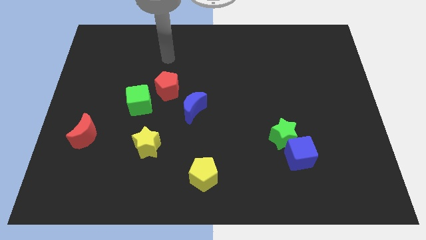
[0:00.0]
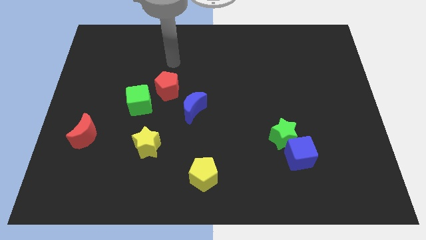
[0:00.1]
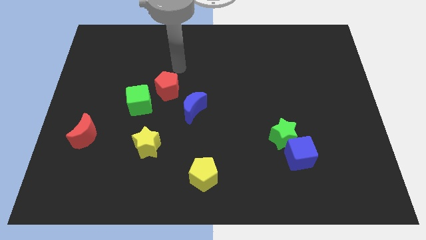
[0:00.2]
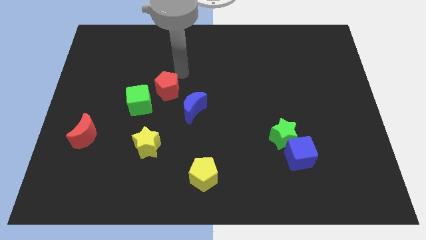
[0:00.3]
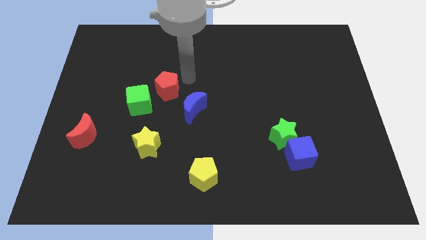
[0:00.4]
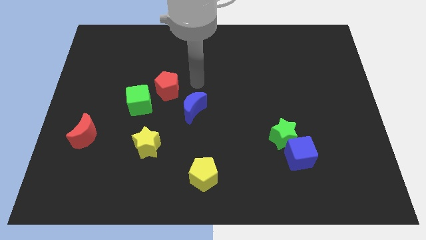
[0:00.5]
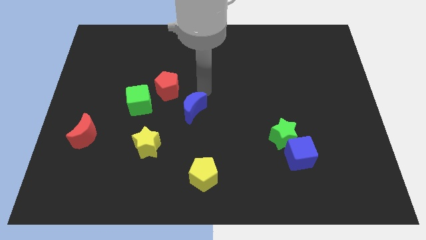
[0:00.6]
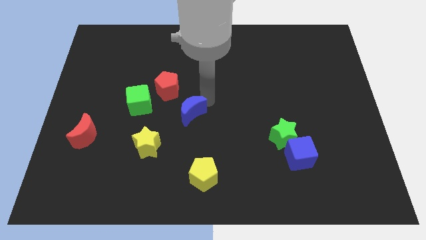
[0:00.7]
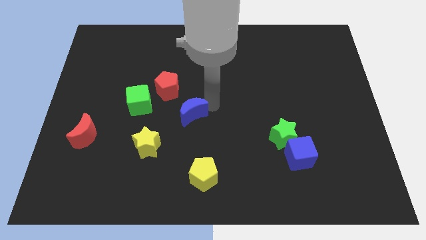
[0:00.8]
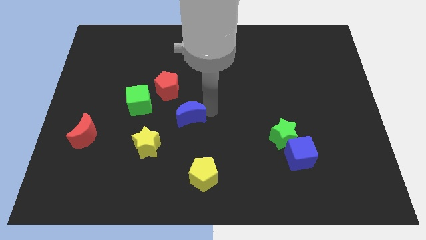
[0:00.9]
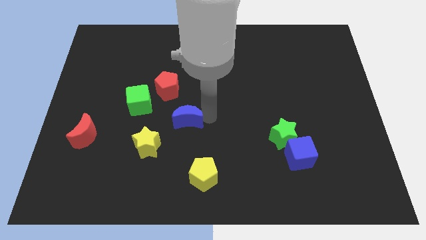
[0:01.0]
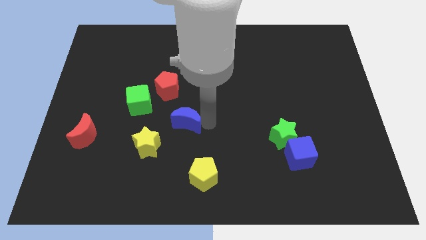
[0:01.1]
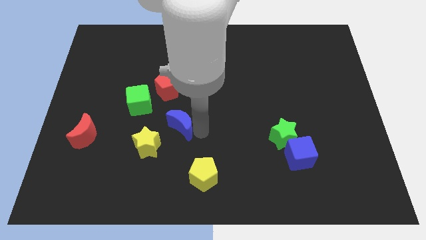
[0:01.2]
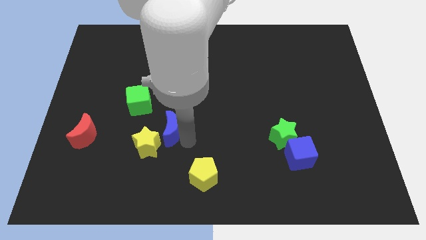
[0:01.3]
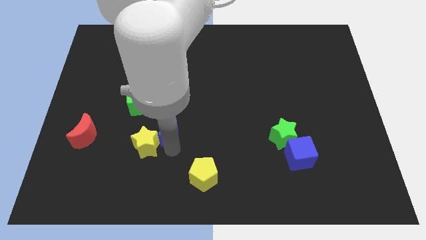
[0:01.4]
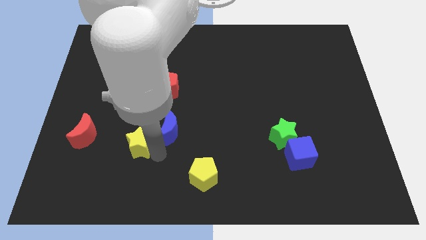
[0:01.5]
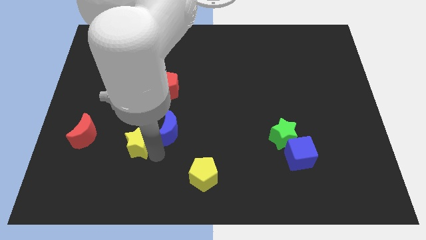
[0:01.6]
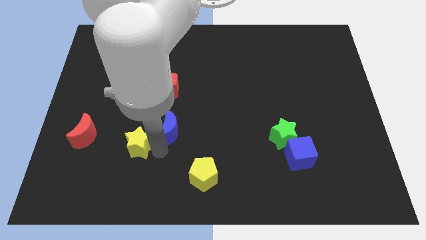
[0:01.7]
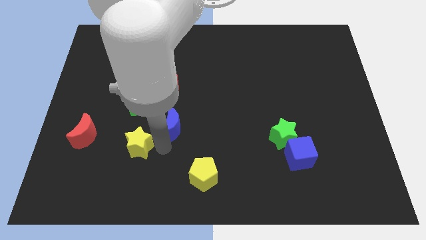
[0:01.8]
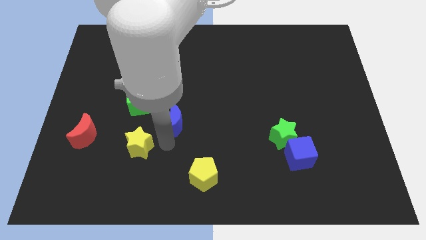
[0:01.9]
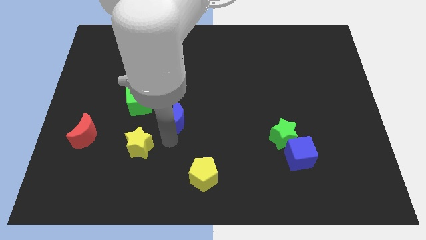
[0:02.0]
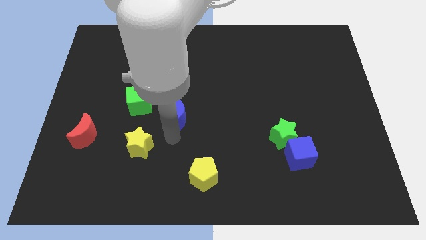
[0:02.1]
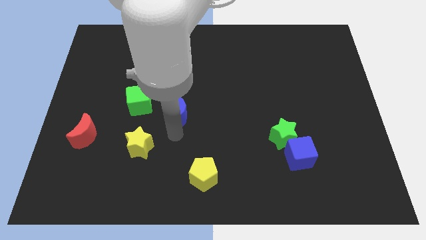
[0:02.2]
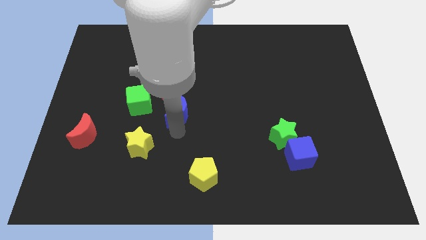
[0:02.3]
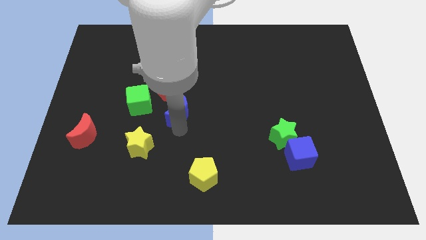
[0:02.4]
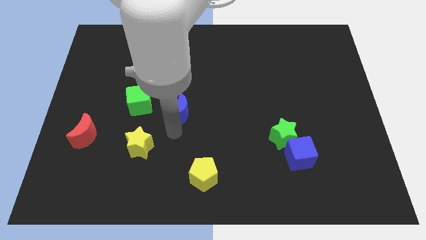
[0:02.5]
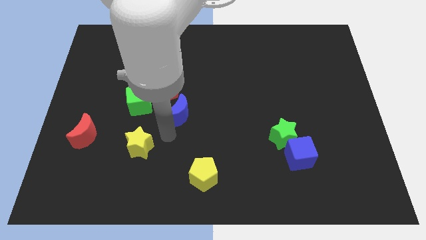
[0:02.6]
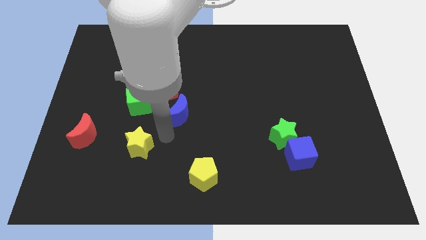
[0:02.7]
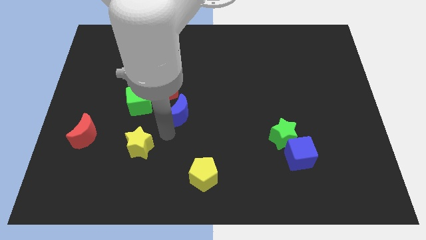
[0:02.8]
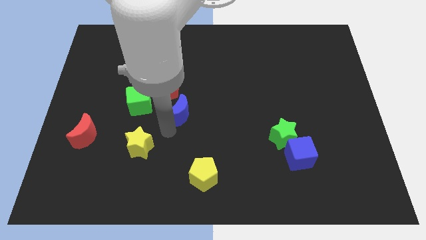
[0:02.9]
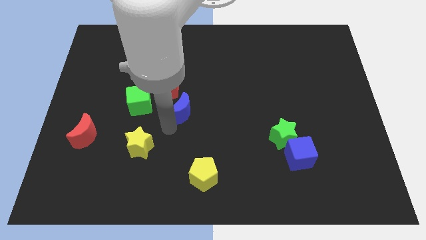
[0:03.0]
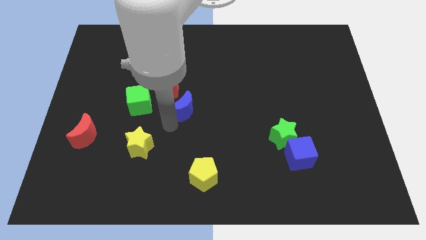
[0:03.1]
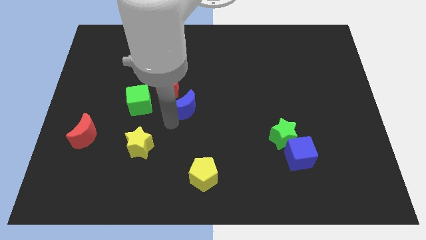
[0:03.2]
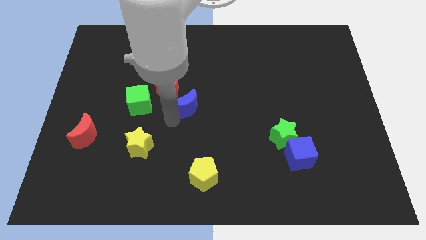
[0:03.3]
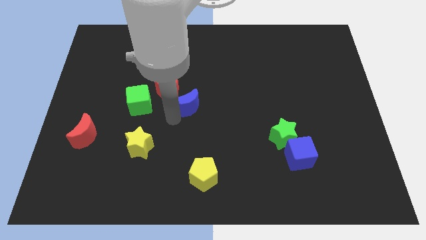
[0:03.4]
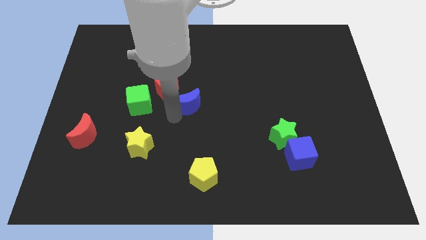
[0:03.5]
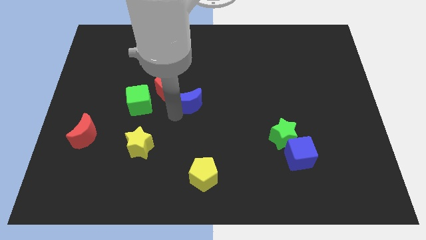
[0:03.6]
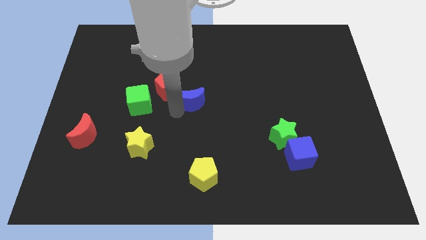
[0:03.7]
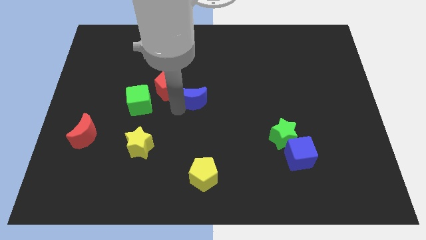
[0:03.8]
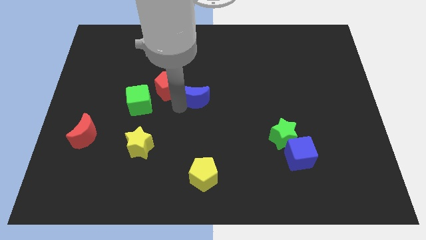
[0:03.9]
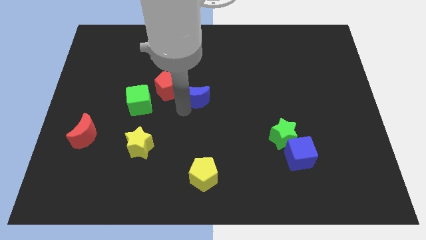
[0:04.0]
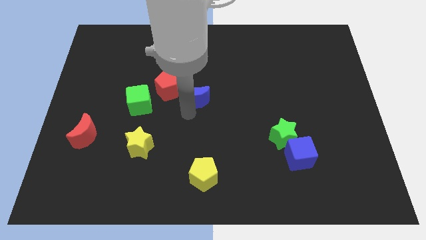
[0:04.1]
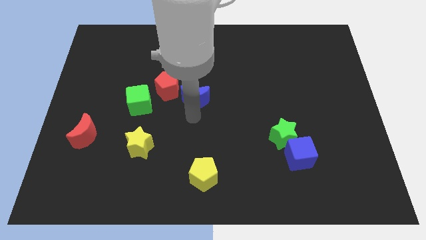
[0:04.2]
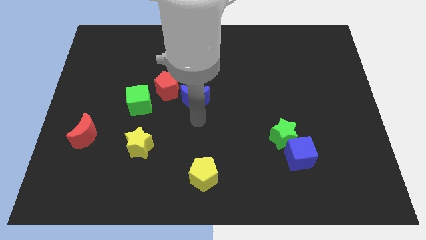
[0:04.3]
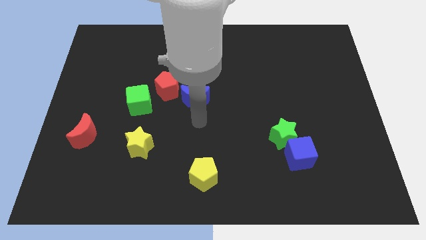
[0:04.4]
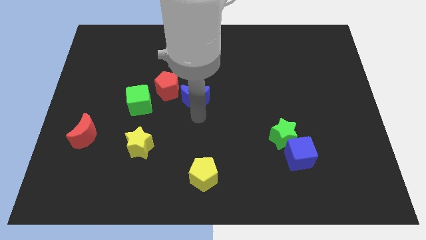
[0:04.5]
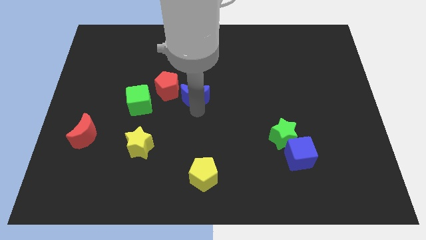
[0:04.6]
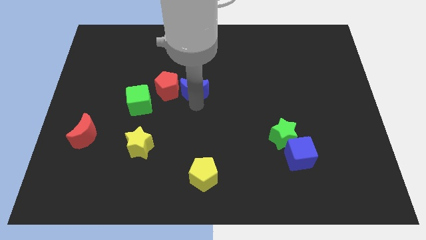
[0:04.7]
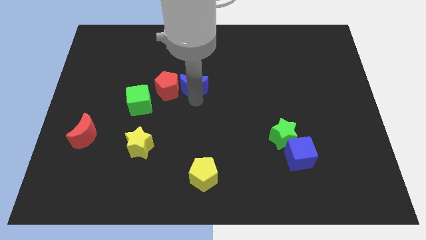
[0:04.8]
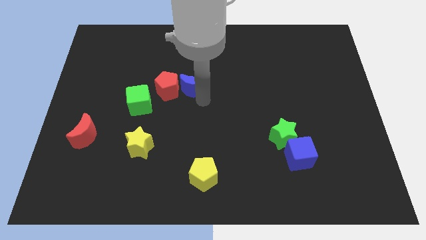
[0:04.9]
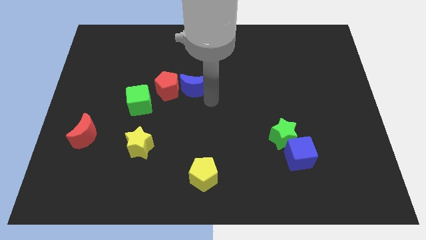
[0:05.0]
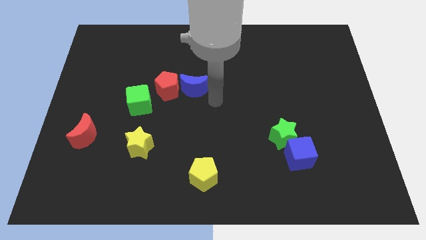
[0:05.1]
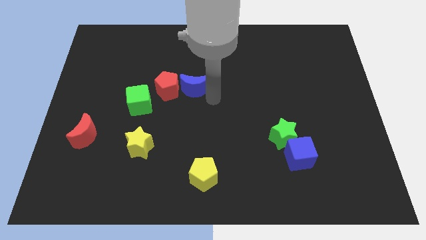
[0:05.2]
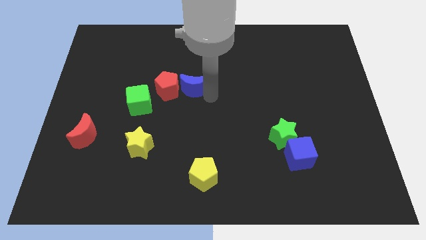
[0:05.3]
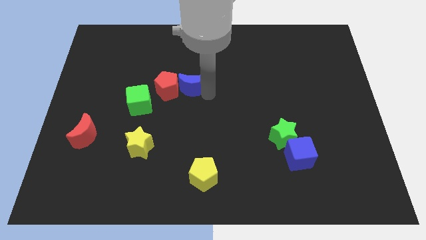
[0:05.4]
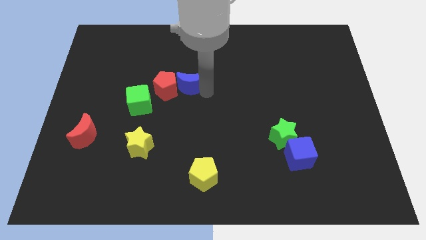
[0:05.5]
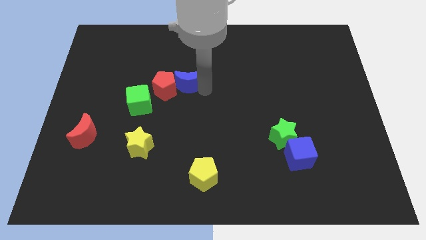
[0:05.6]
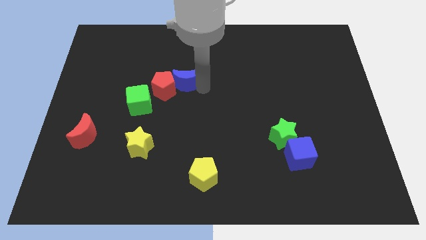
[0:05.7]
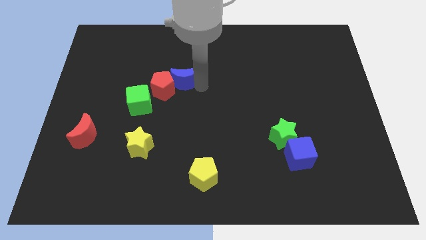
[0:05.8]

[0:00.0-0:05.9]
slide the blue moon somewhat diagonally up and left

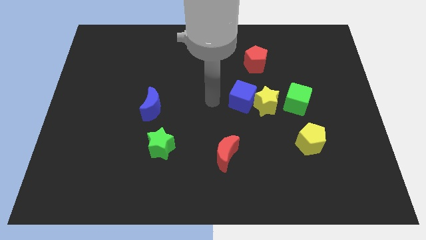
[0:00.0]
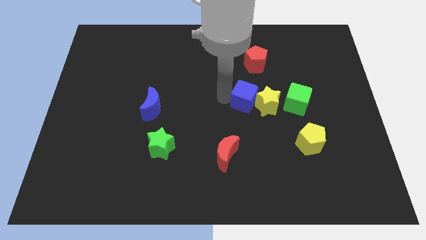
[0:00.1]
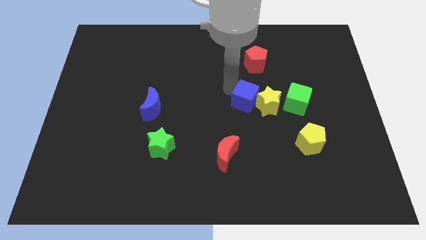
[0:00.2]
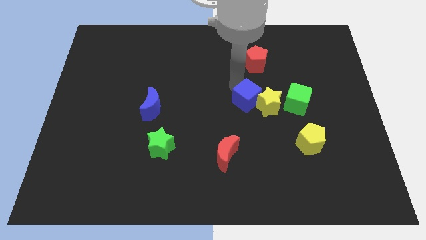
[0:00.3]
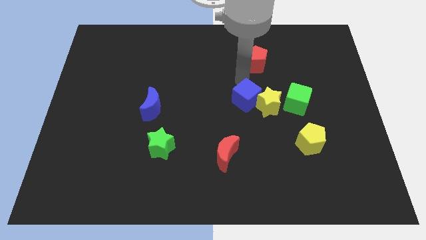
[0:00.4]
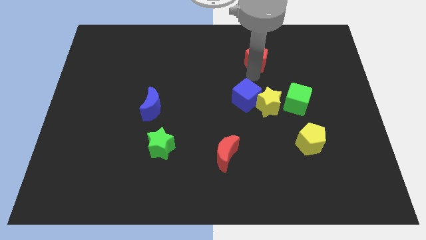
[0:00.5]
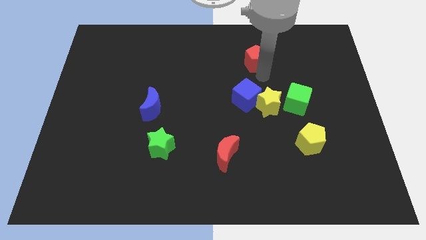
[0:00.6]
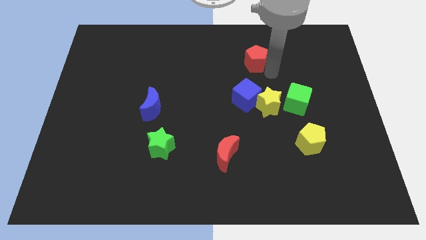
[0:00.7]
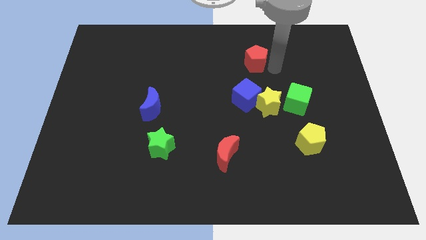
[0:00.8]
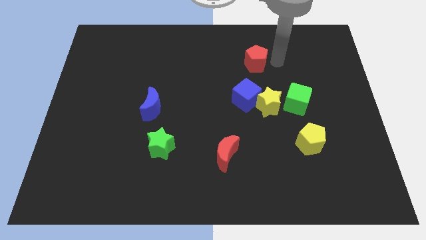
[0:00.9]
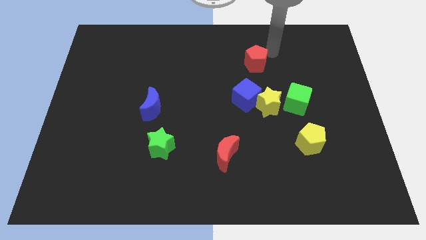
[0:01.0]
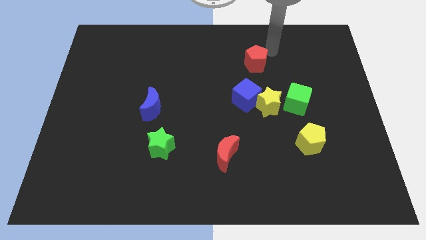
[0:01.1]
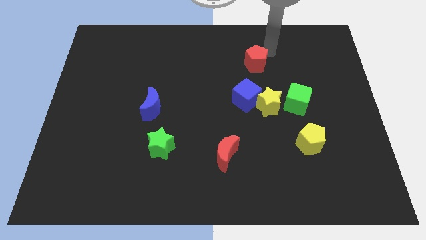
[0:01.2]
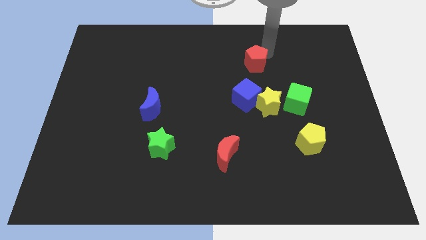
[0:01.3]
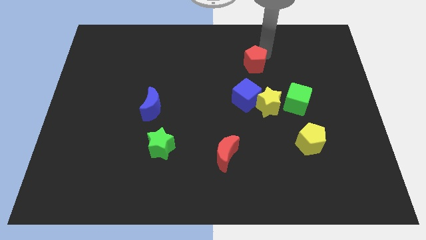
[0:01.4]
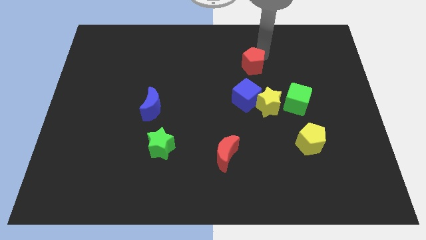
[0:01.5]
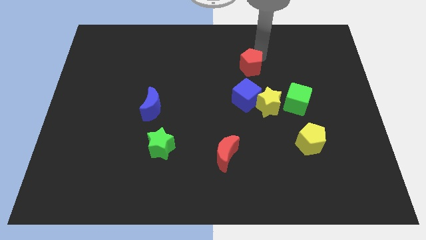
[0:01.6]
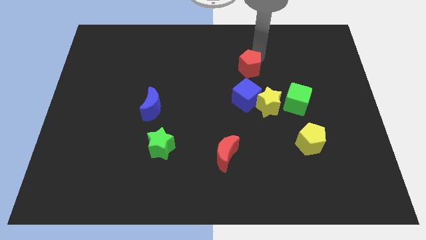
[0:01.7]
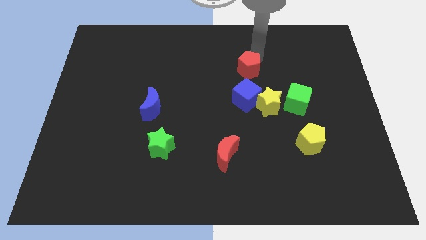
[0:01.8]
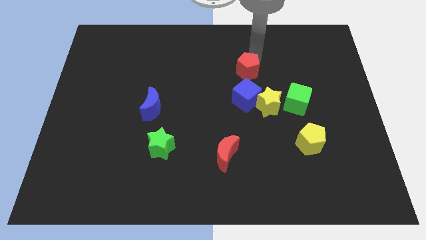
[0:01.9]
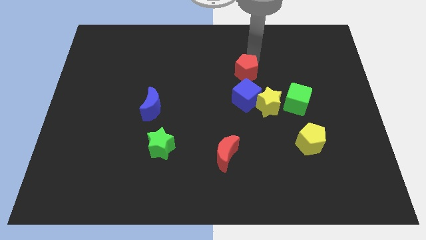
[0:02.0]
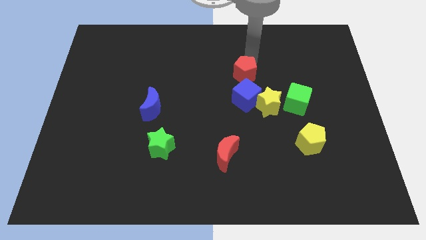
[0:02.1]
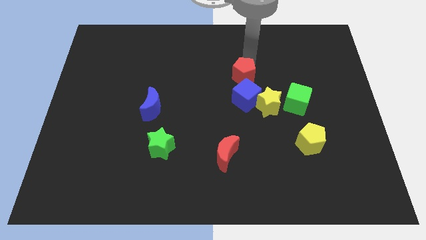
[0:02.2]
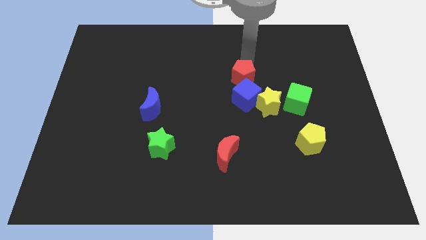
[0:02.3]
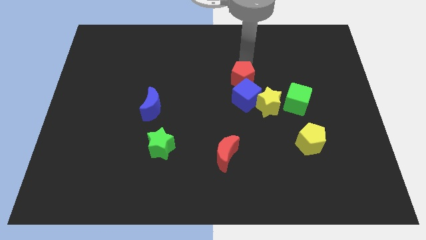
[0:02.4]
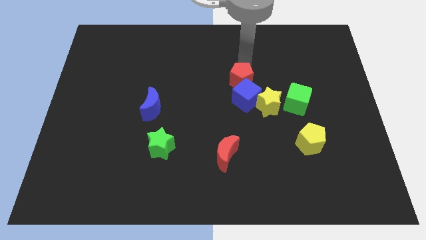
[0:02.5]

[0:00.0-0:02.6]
slightly move the red pentagon downwards and to the left
